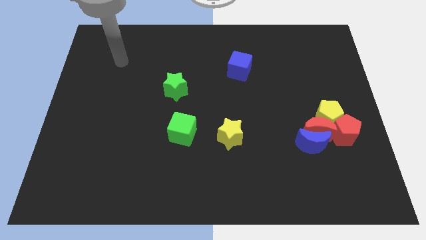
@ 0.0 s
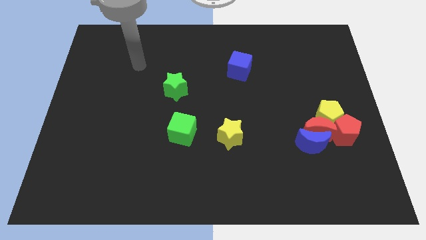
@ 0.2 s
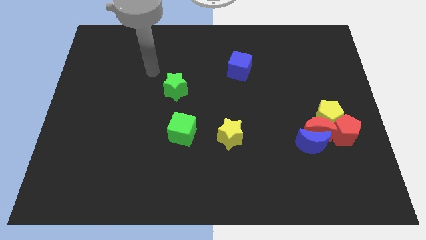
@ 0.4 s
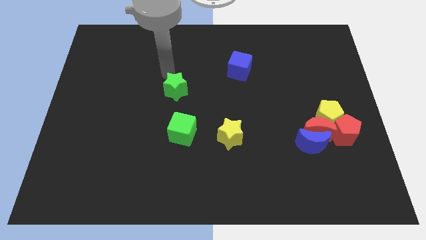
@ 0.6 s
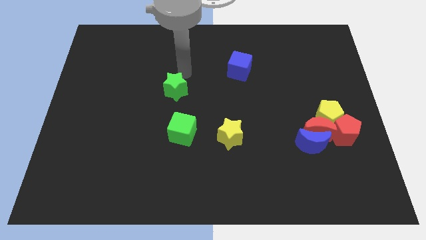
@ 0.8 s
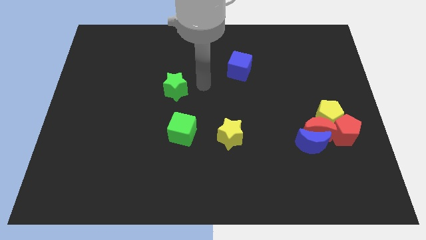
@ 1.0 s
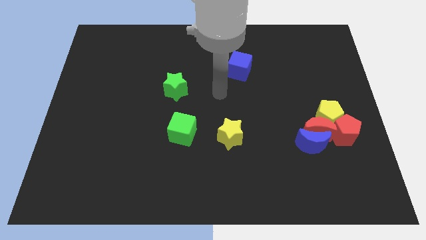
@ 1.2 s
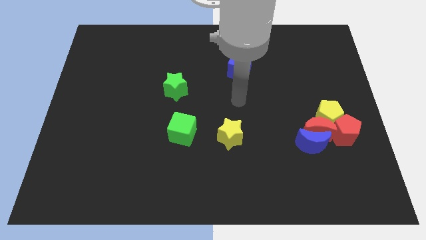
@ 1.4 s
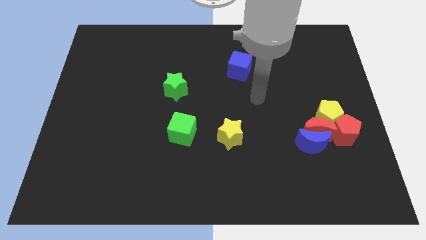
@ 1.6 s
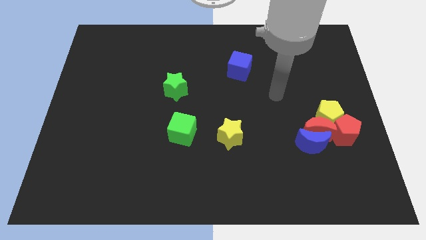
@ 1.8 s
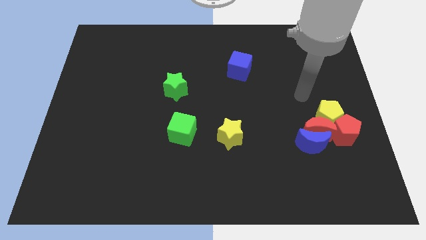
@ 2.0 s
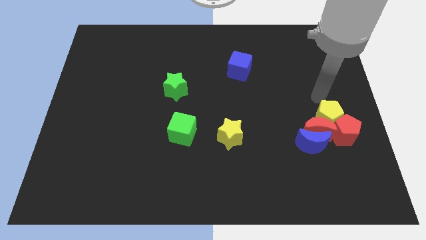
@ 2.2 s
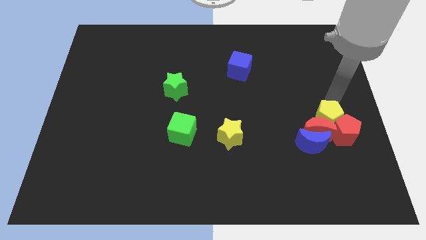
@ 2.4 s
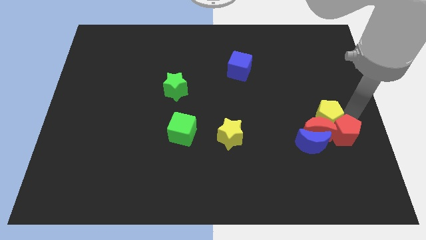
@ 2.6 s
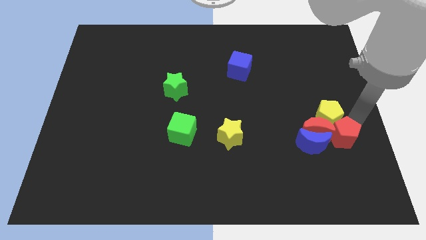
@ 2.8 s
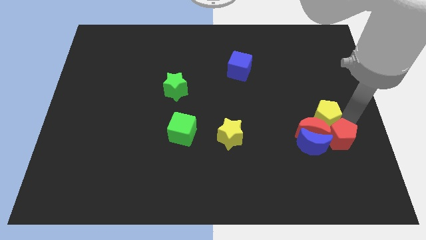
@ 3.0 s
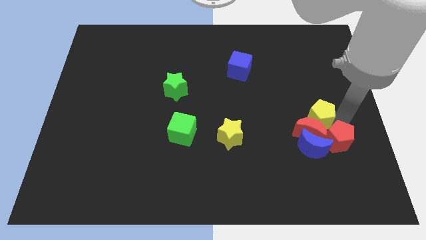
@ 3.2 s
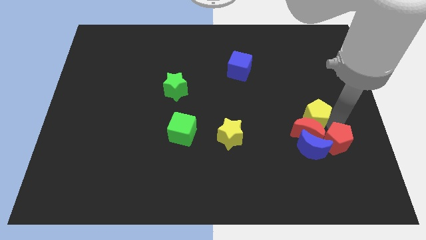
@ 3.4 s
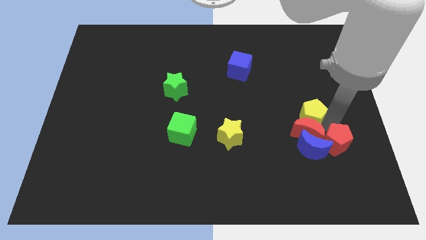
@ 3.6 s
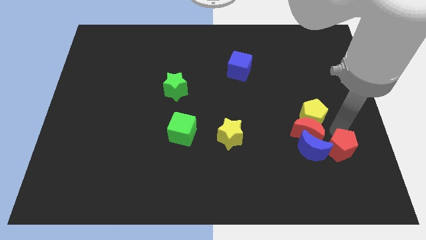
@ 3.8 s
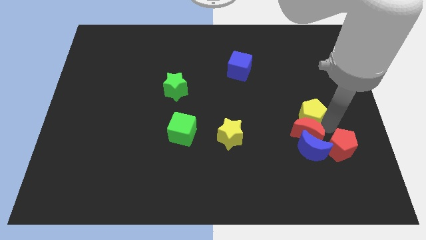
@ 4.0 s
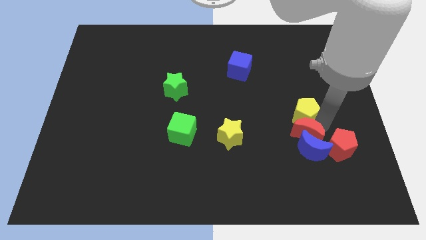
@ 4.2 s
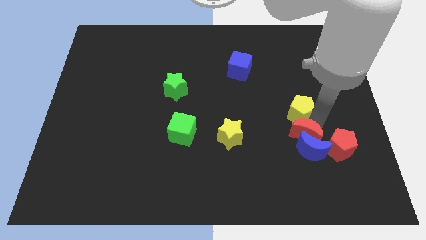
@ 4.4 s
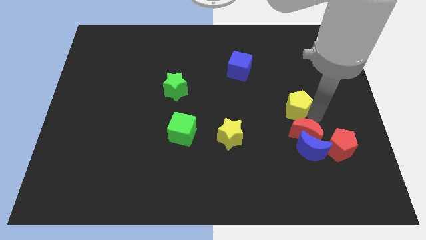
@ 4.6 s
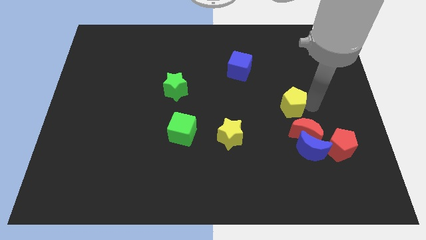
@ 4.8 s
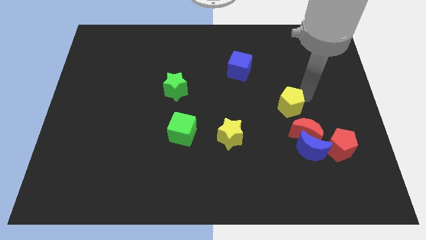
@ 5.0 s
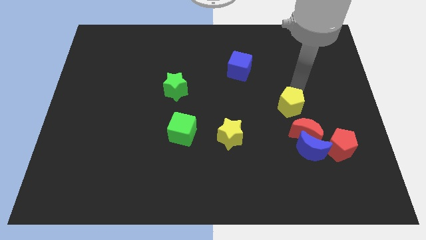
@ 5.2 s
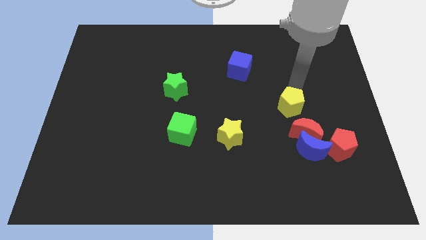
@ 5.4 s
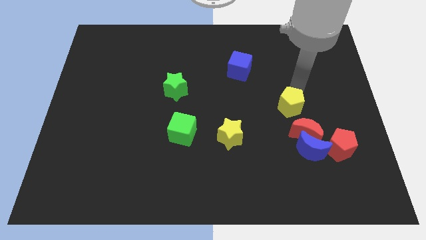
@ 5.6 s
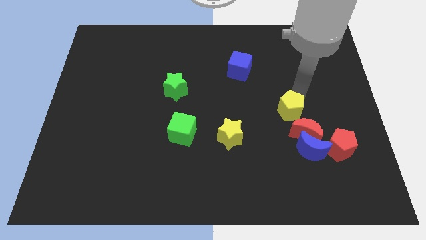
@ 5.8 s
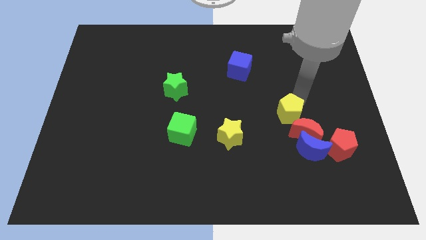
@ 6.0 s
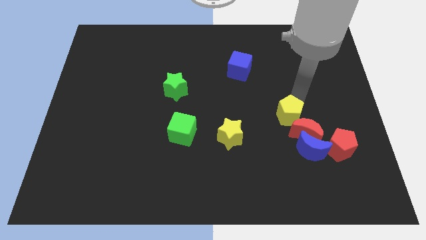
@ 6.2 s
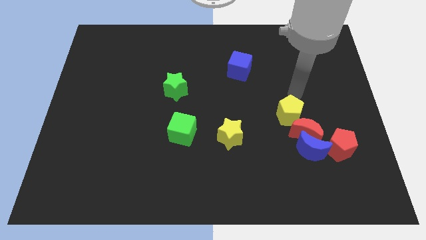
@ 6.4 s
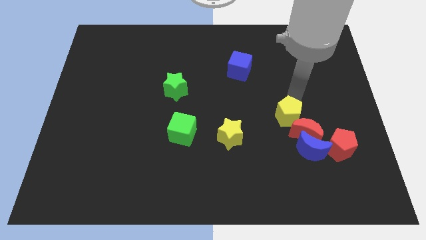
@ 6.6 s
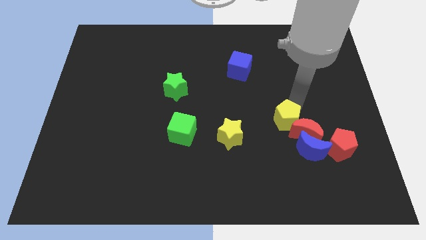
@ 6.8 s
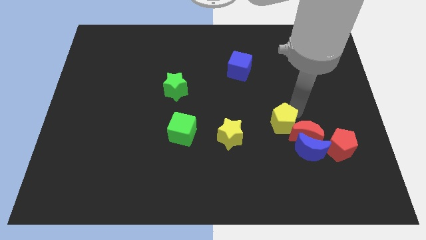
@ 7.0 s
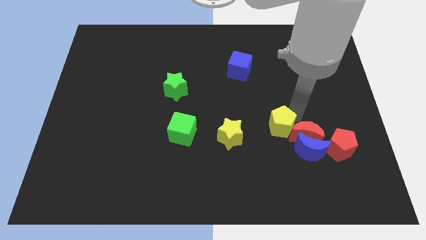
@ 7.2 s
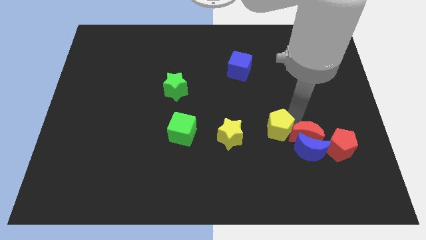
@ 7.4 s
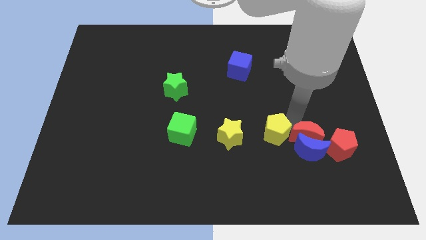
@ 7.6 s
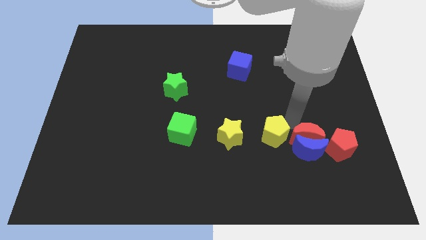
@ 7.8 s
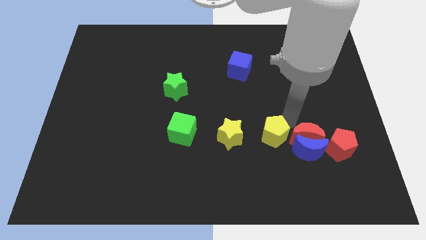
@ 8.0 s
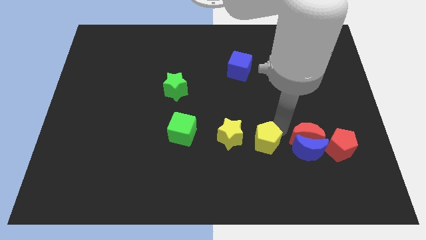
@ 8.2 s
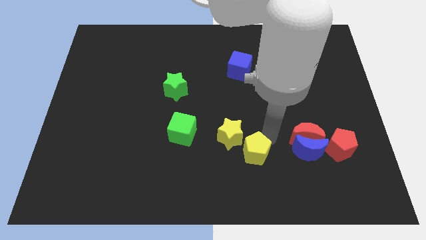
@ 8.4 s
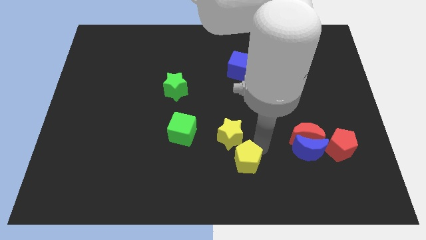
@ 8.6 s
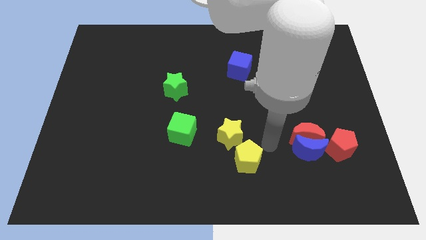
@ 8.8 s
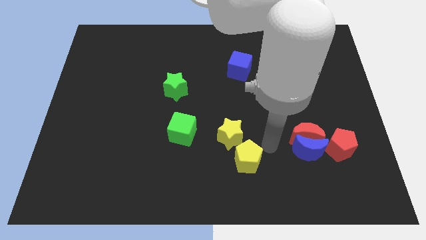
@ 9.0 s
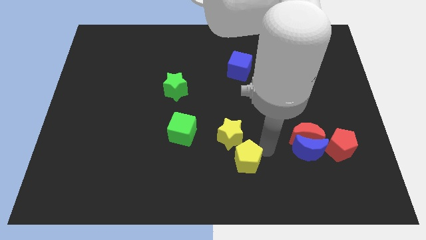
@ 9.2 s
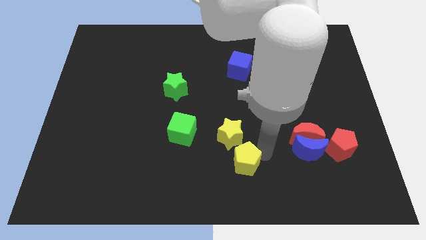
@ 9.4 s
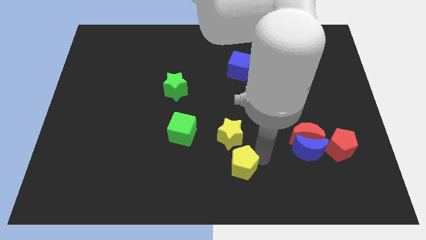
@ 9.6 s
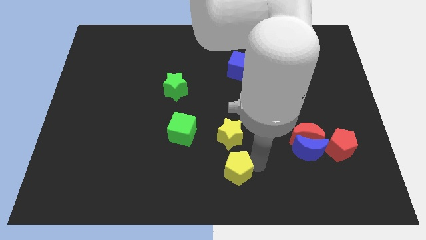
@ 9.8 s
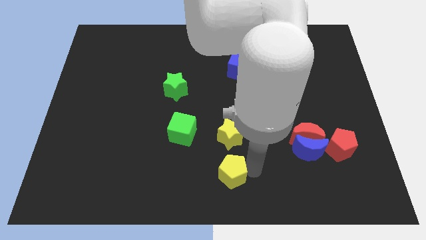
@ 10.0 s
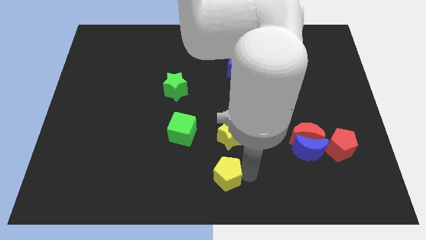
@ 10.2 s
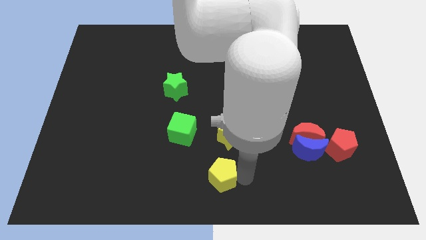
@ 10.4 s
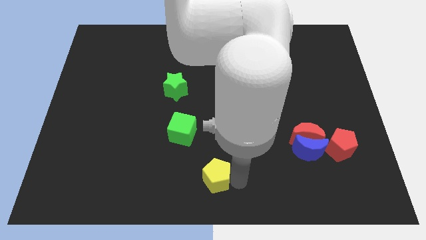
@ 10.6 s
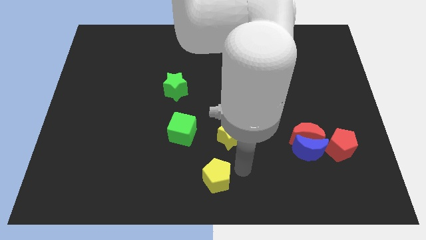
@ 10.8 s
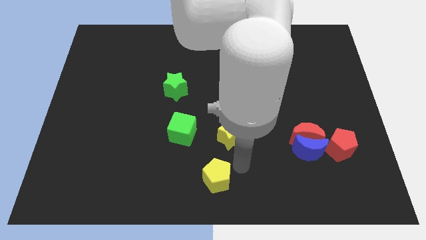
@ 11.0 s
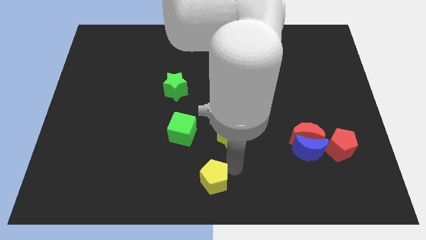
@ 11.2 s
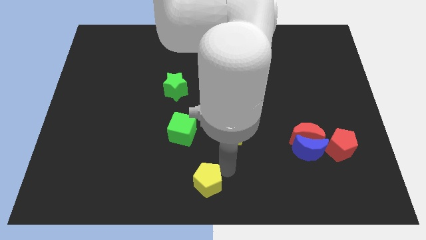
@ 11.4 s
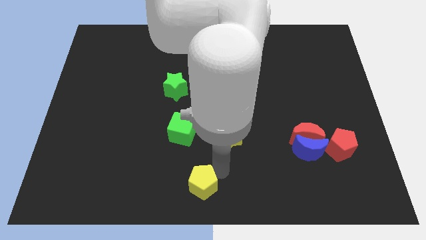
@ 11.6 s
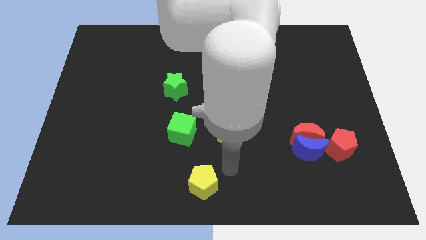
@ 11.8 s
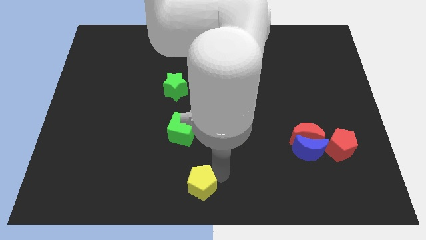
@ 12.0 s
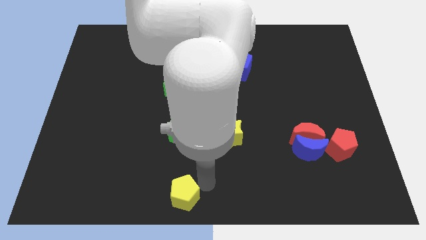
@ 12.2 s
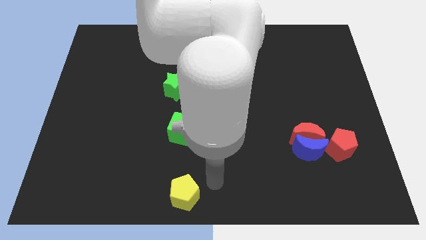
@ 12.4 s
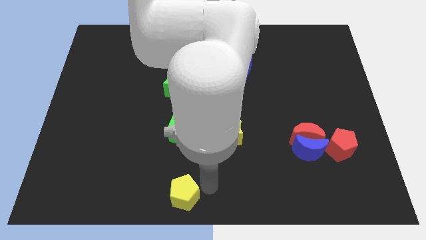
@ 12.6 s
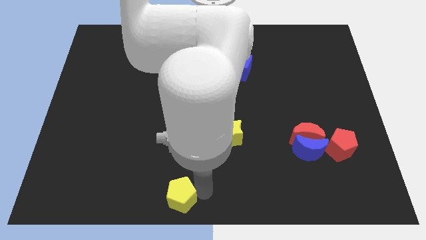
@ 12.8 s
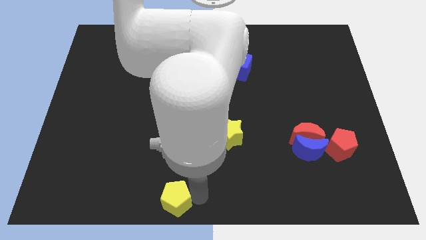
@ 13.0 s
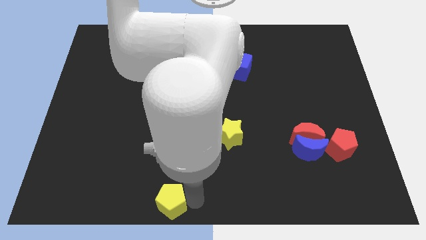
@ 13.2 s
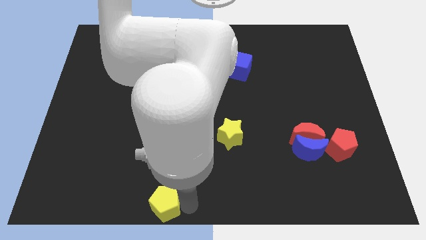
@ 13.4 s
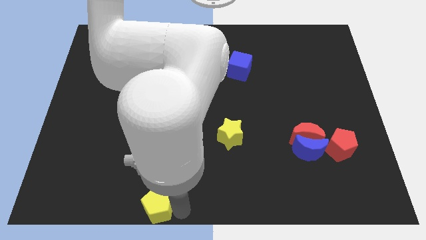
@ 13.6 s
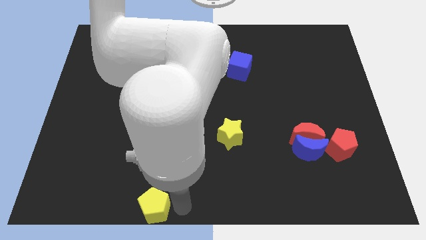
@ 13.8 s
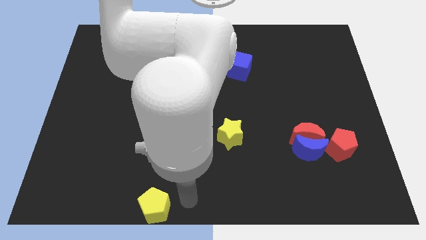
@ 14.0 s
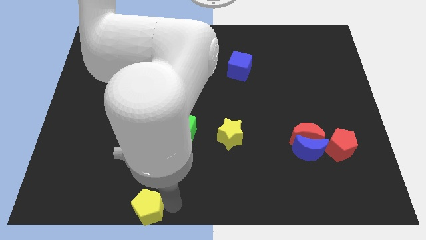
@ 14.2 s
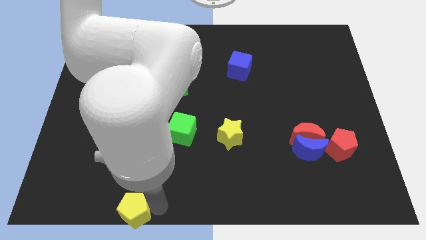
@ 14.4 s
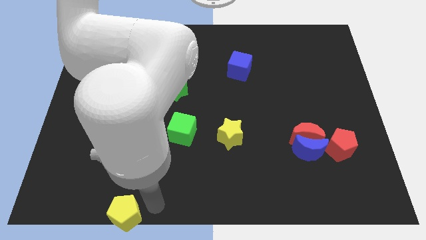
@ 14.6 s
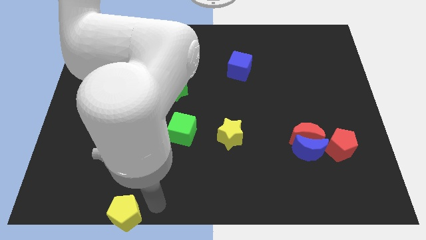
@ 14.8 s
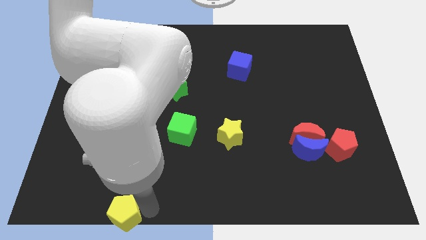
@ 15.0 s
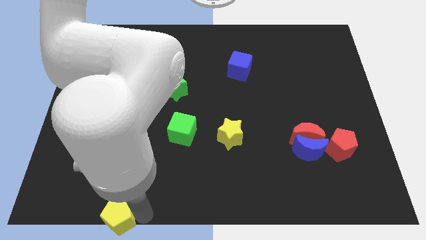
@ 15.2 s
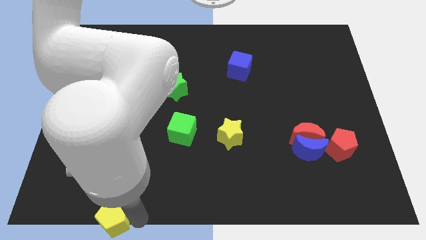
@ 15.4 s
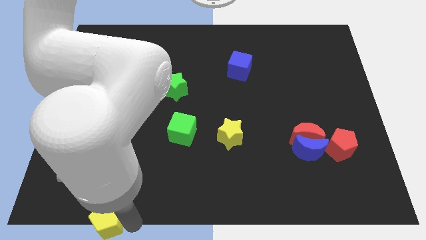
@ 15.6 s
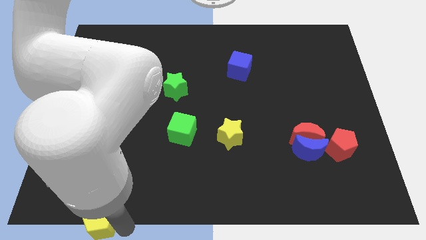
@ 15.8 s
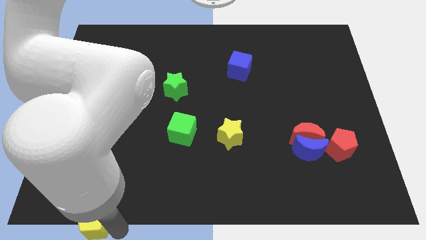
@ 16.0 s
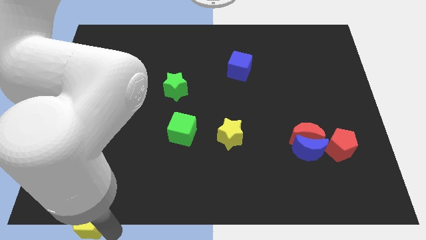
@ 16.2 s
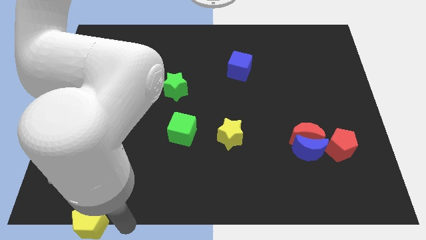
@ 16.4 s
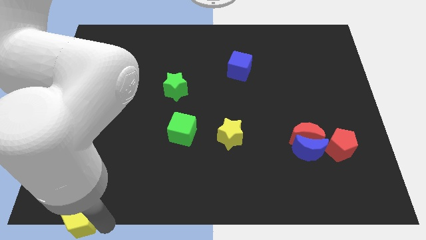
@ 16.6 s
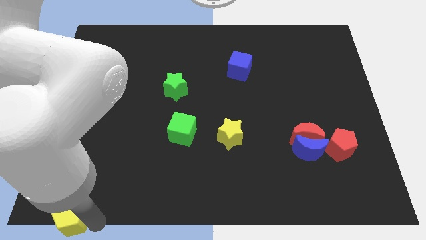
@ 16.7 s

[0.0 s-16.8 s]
put the yellow pentagon to the lower left corner
